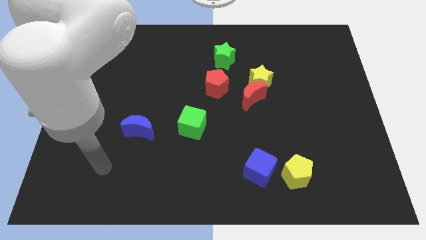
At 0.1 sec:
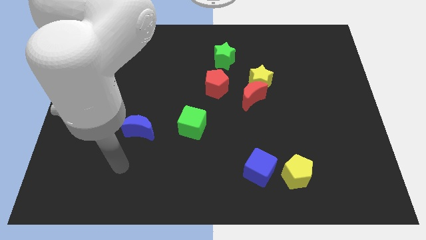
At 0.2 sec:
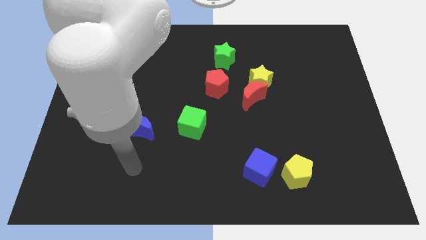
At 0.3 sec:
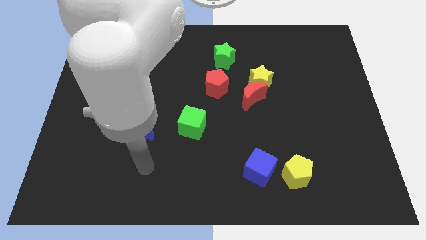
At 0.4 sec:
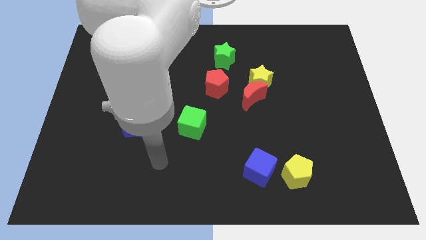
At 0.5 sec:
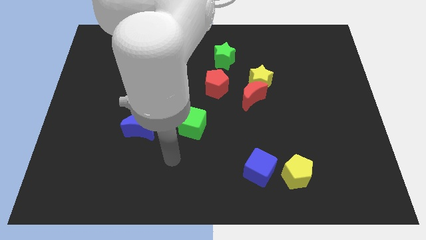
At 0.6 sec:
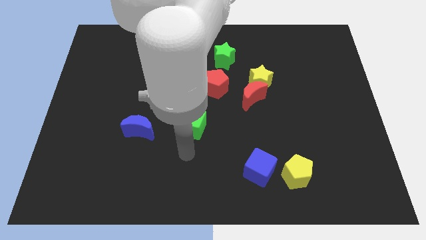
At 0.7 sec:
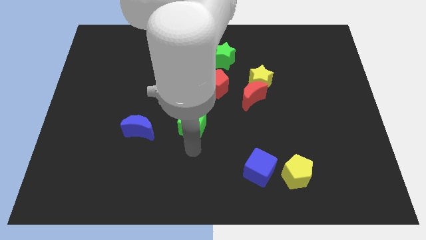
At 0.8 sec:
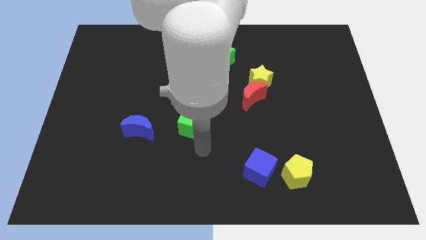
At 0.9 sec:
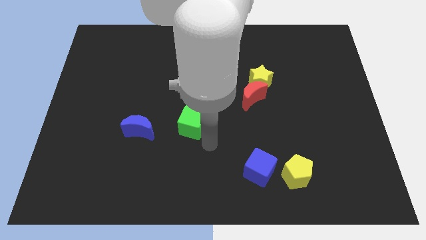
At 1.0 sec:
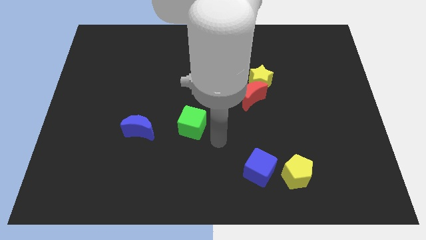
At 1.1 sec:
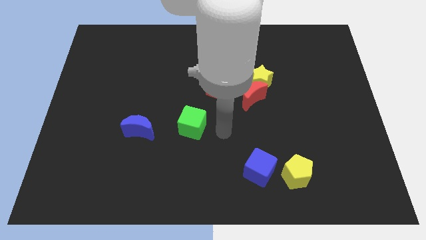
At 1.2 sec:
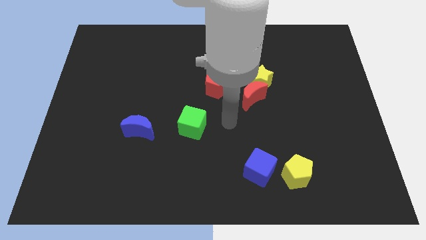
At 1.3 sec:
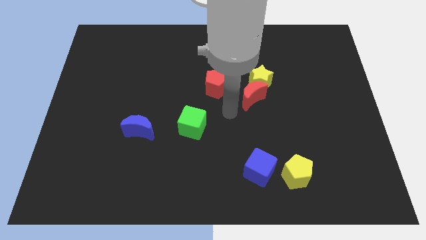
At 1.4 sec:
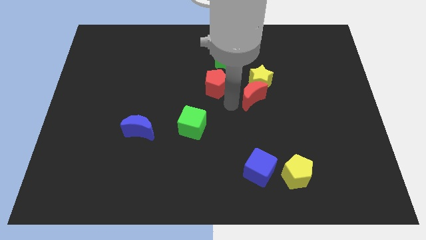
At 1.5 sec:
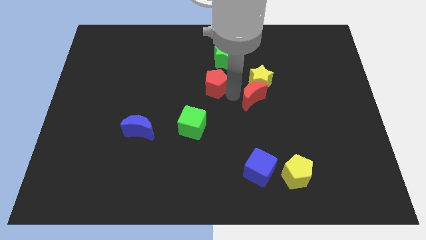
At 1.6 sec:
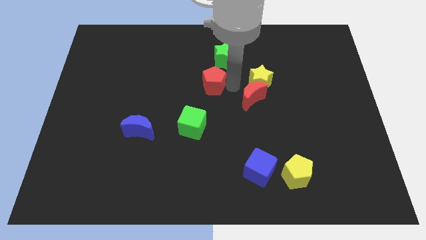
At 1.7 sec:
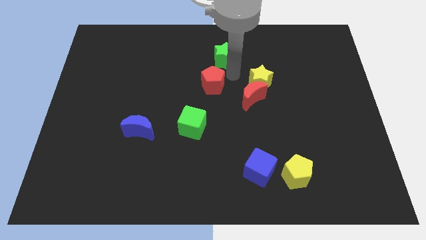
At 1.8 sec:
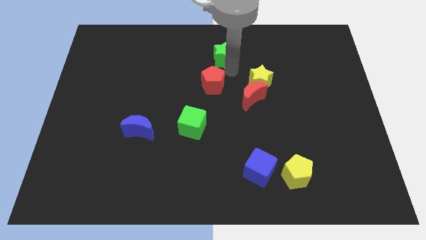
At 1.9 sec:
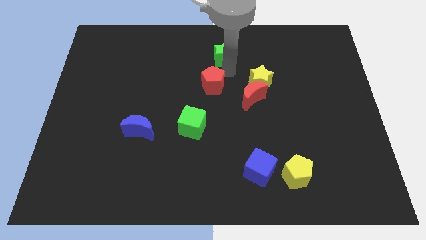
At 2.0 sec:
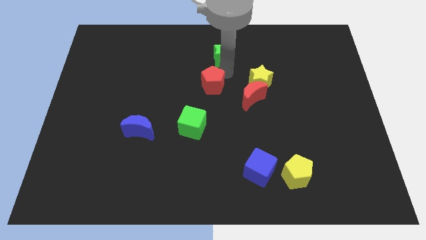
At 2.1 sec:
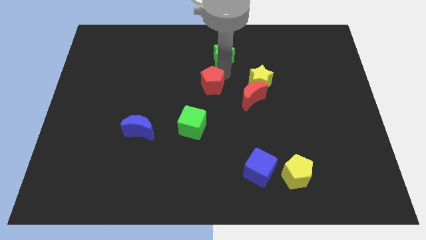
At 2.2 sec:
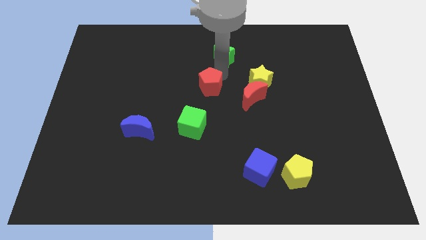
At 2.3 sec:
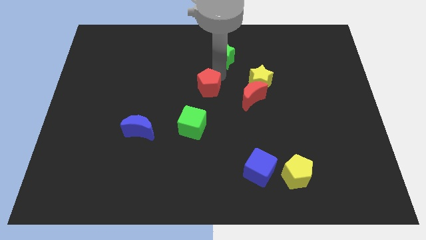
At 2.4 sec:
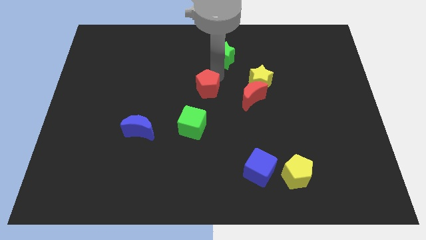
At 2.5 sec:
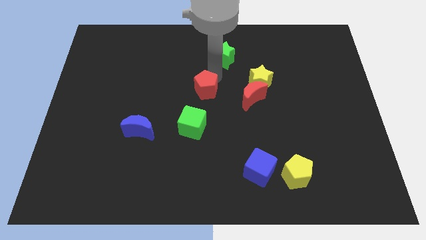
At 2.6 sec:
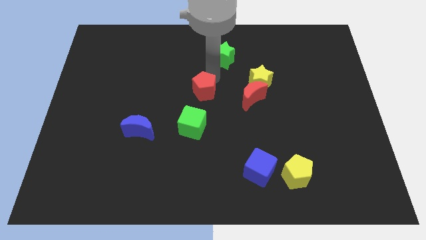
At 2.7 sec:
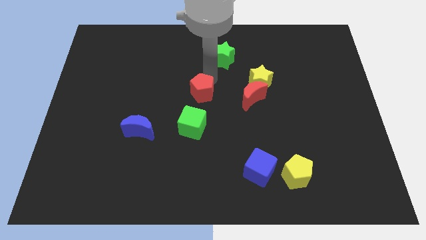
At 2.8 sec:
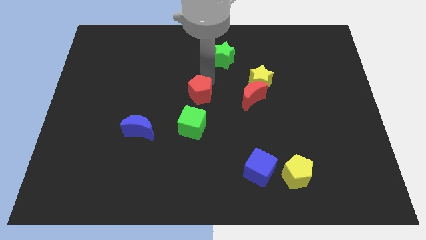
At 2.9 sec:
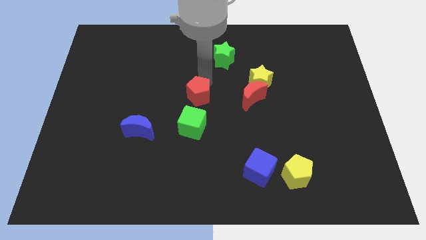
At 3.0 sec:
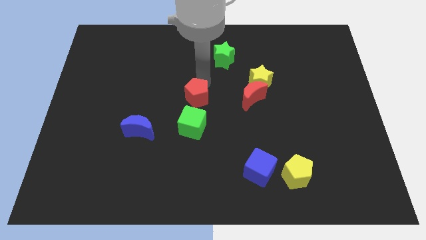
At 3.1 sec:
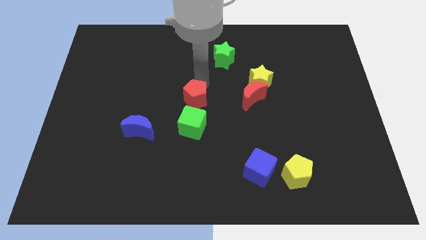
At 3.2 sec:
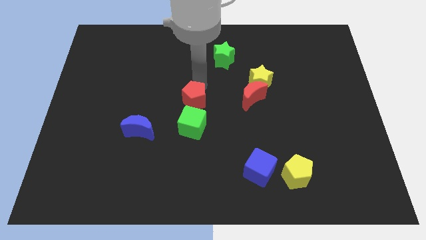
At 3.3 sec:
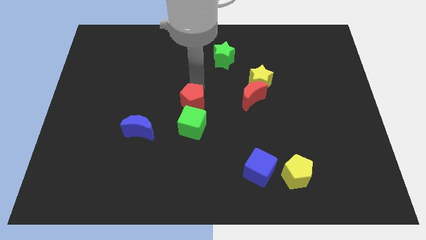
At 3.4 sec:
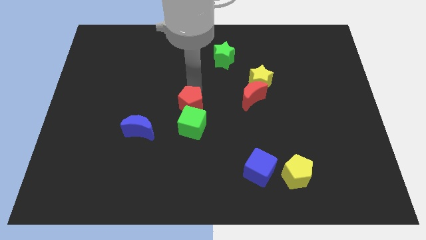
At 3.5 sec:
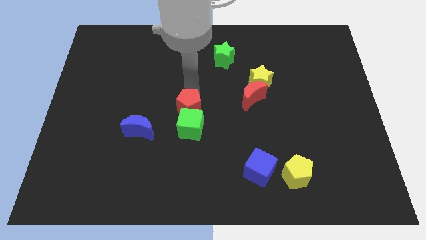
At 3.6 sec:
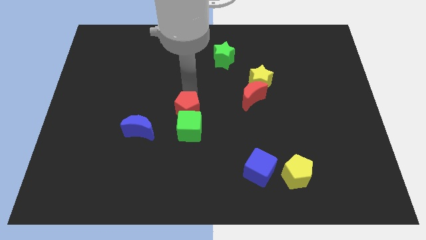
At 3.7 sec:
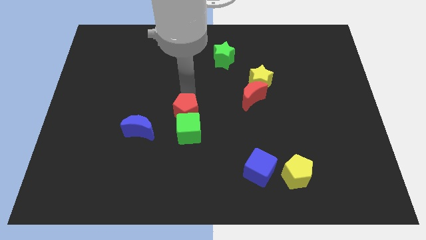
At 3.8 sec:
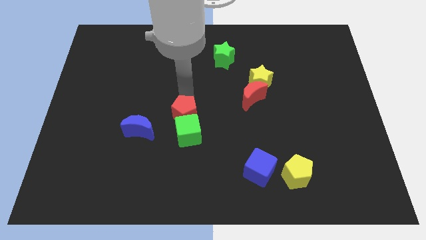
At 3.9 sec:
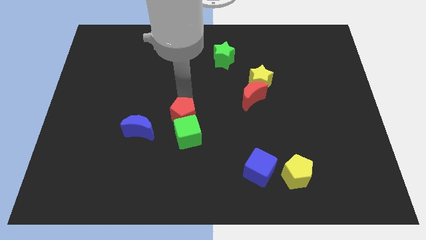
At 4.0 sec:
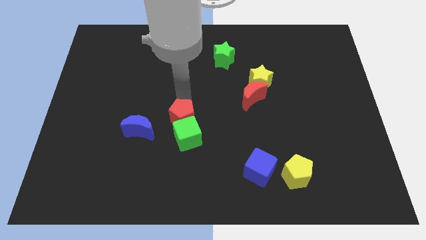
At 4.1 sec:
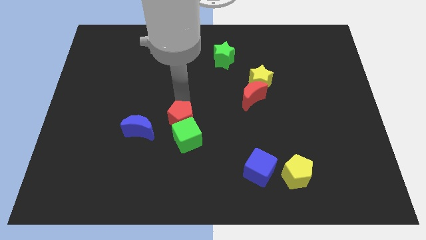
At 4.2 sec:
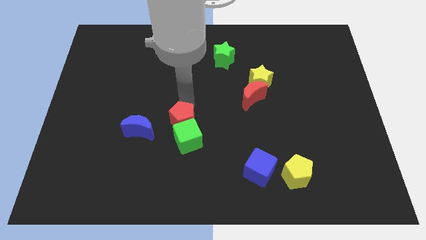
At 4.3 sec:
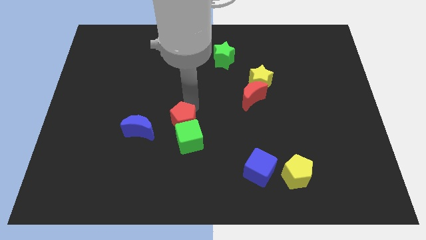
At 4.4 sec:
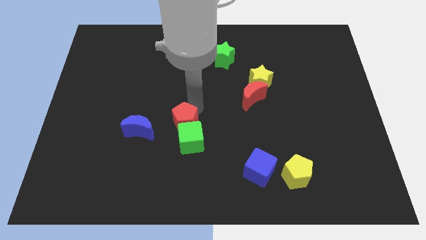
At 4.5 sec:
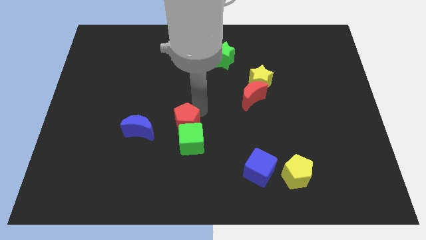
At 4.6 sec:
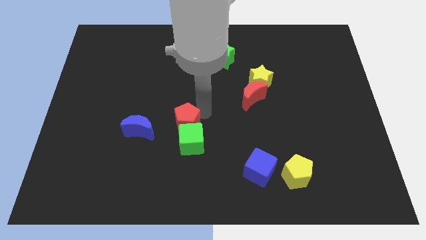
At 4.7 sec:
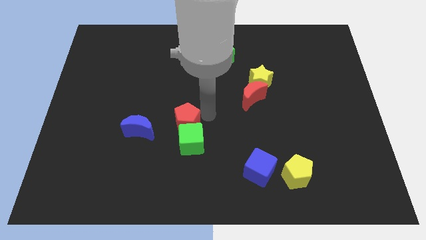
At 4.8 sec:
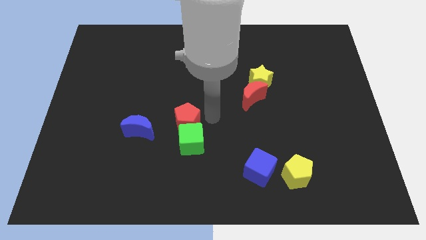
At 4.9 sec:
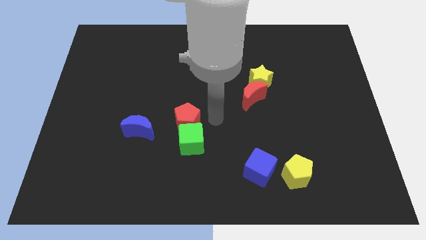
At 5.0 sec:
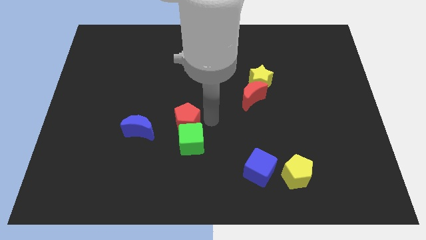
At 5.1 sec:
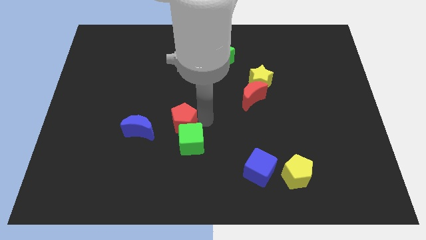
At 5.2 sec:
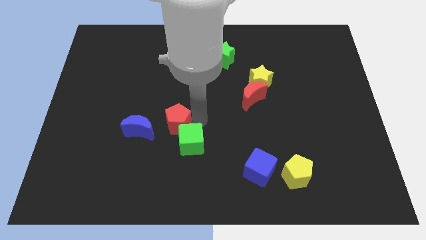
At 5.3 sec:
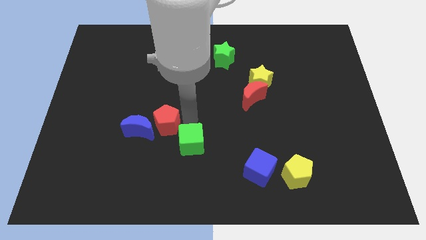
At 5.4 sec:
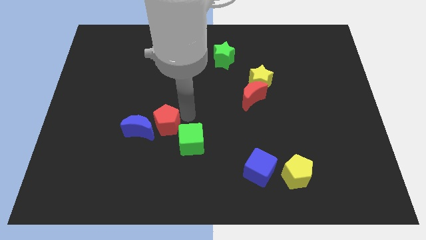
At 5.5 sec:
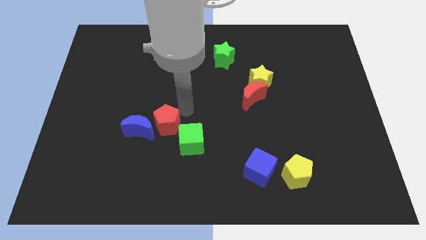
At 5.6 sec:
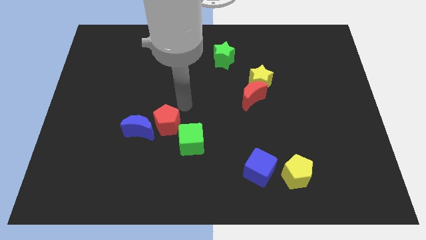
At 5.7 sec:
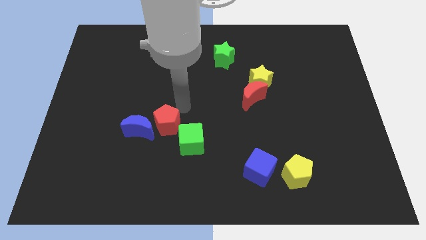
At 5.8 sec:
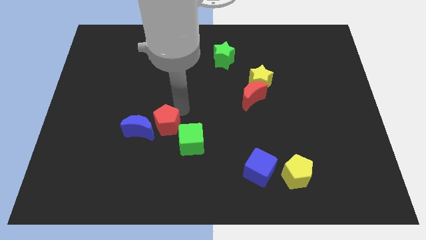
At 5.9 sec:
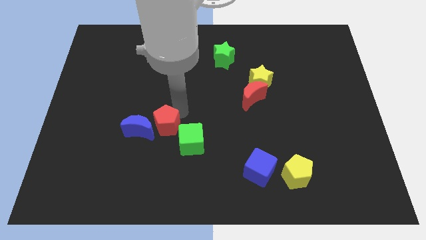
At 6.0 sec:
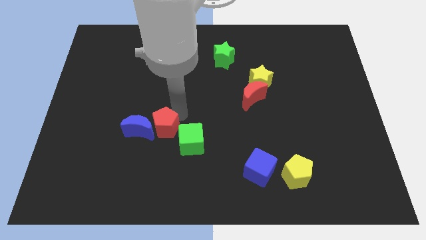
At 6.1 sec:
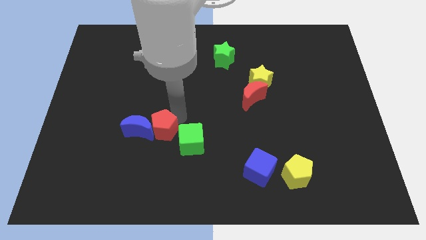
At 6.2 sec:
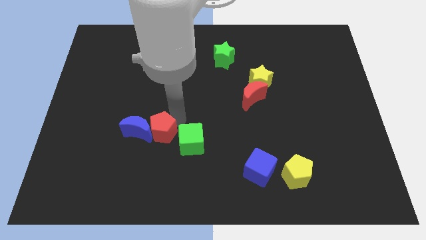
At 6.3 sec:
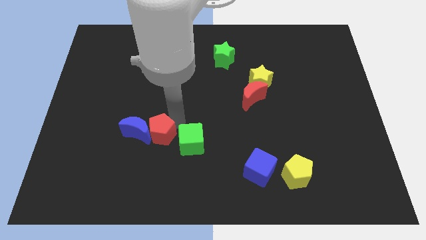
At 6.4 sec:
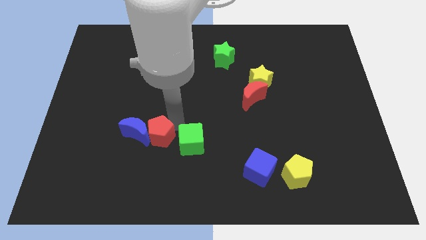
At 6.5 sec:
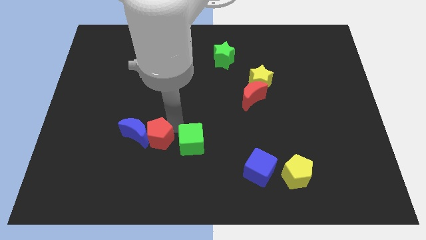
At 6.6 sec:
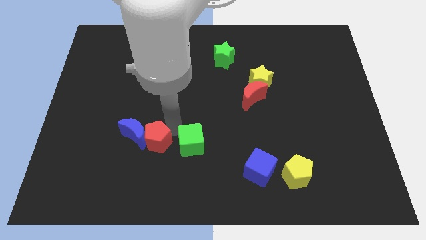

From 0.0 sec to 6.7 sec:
push the red pentagon diagonally downwards and left

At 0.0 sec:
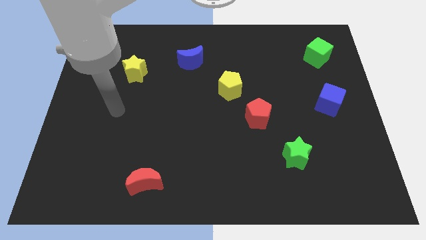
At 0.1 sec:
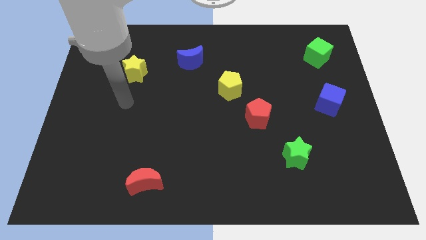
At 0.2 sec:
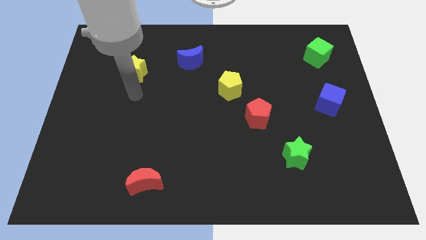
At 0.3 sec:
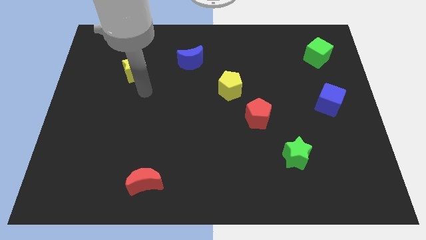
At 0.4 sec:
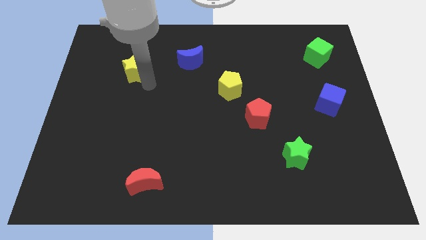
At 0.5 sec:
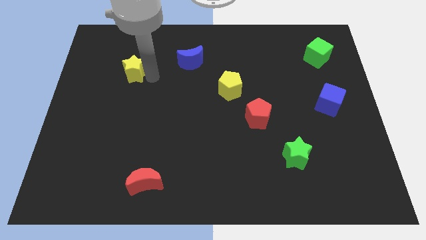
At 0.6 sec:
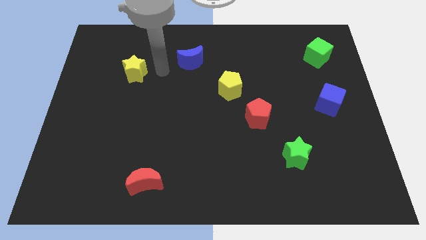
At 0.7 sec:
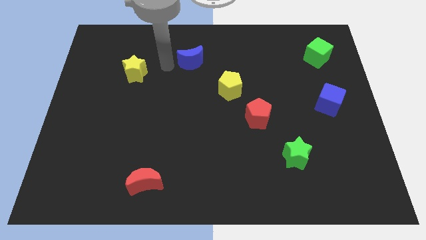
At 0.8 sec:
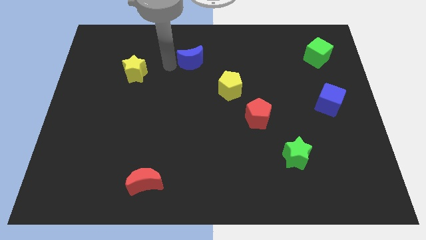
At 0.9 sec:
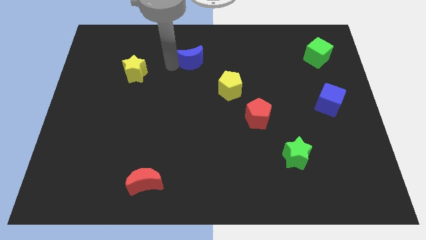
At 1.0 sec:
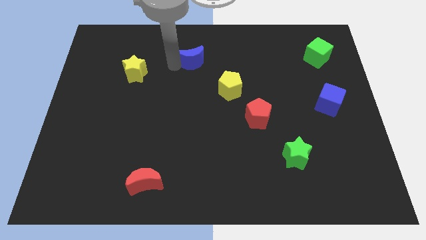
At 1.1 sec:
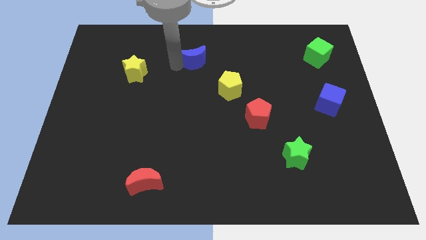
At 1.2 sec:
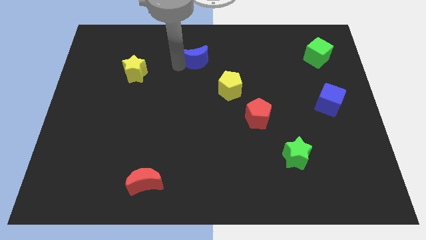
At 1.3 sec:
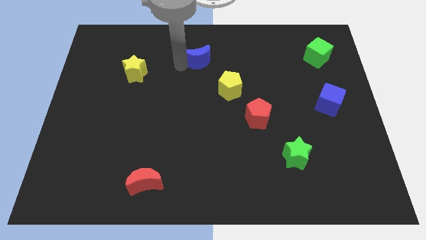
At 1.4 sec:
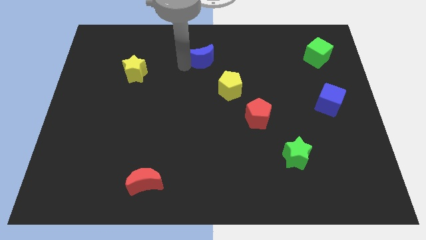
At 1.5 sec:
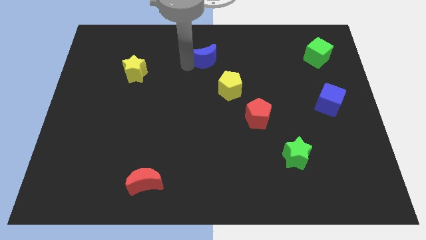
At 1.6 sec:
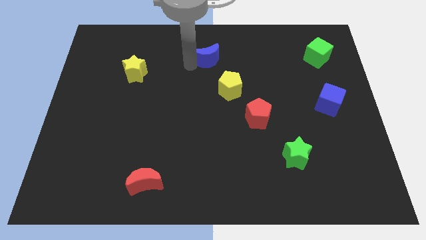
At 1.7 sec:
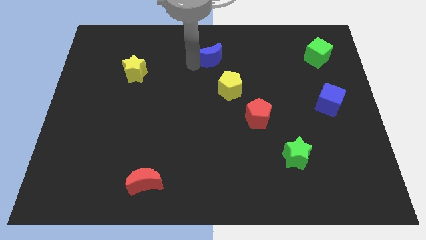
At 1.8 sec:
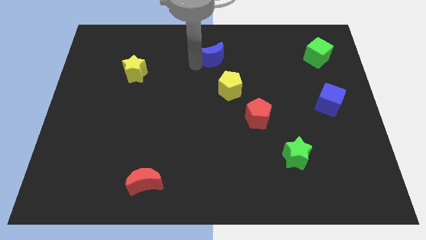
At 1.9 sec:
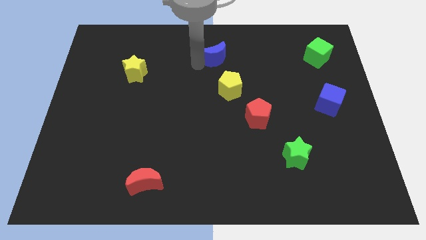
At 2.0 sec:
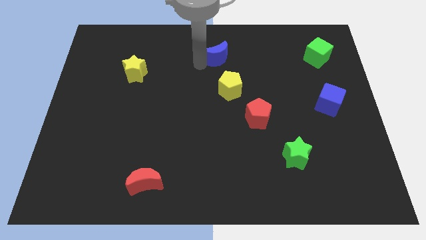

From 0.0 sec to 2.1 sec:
push the blue moon to the right slightly
